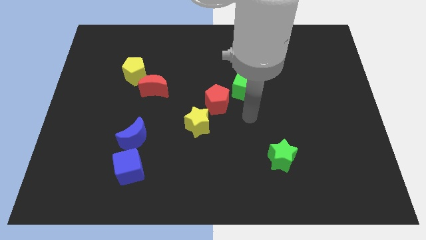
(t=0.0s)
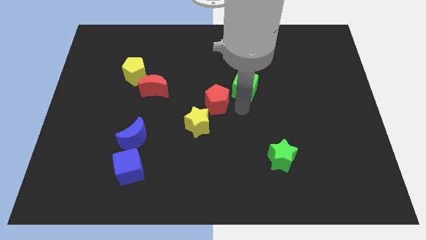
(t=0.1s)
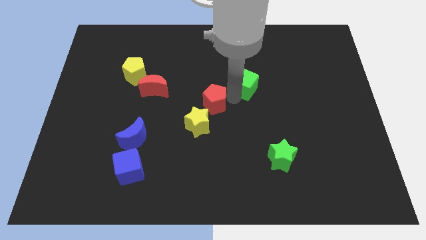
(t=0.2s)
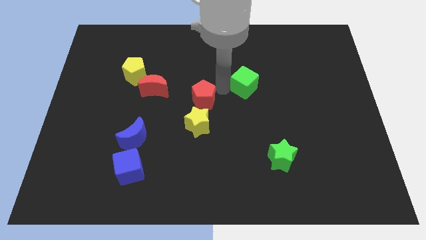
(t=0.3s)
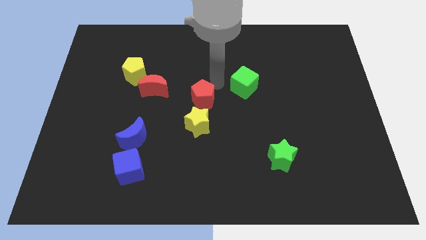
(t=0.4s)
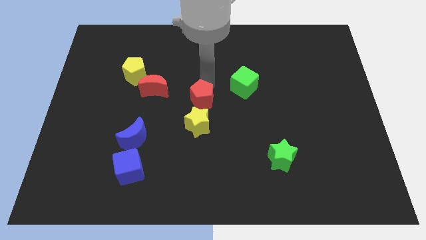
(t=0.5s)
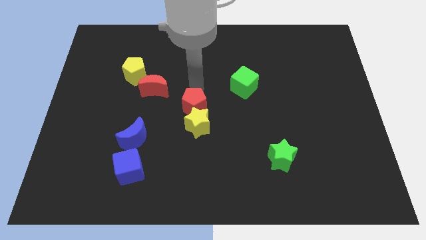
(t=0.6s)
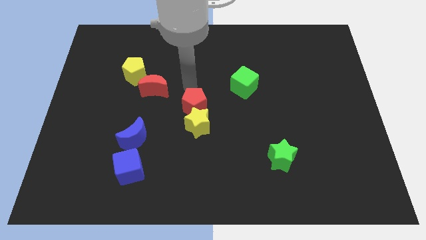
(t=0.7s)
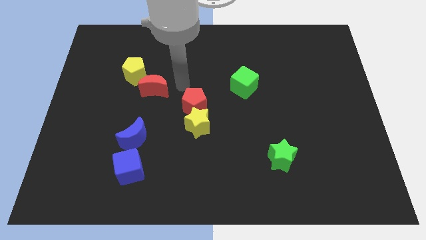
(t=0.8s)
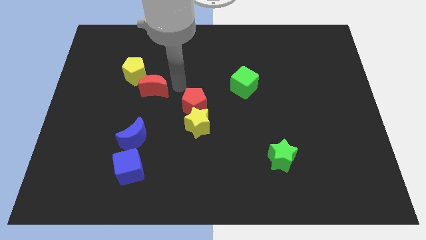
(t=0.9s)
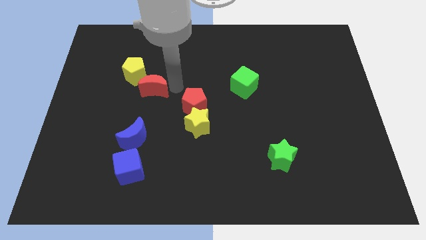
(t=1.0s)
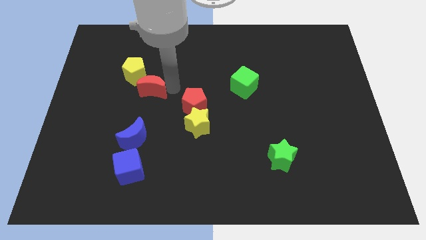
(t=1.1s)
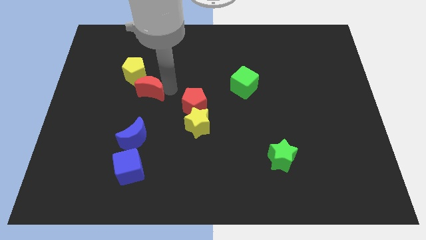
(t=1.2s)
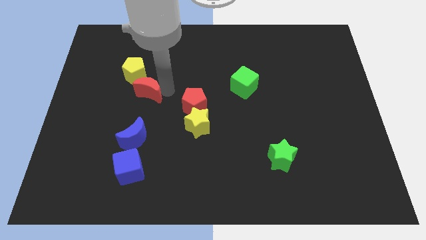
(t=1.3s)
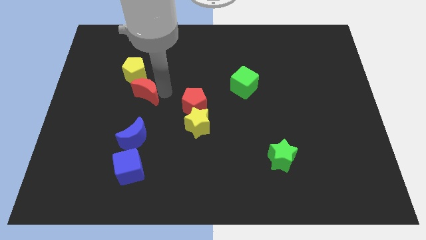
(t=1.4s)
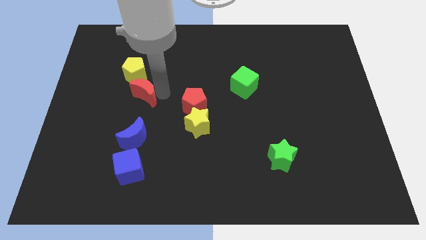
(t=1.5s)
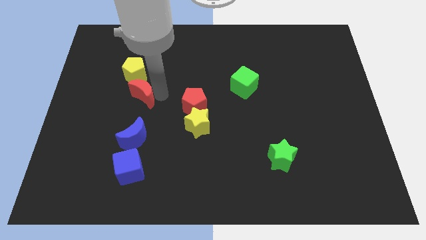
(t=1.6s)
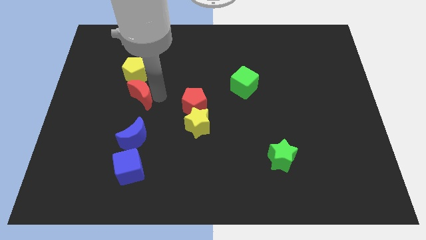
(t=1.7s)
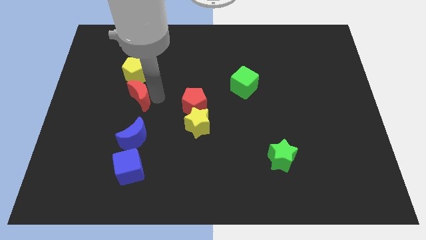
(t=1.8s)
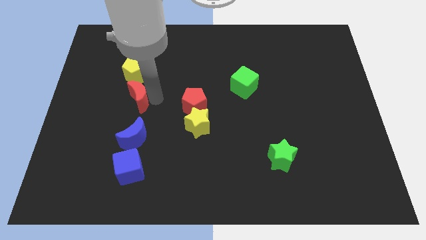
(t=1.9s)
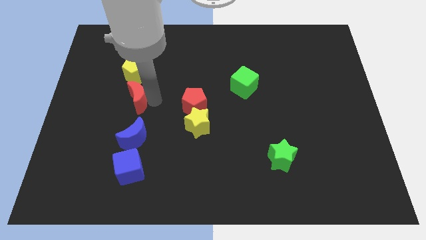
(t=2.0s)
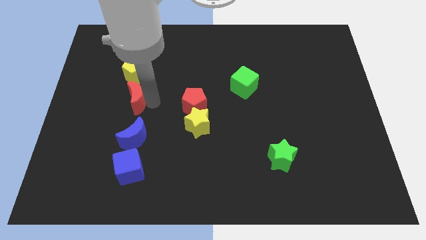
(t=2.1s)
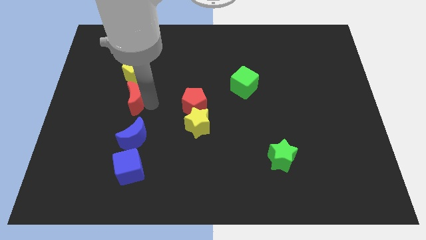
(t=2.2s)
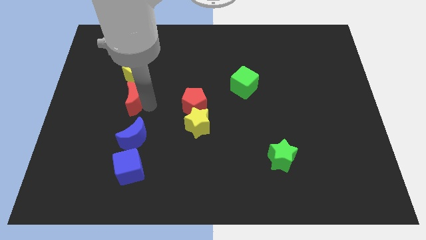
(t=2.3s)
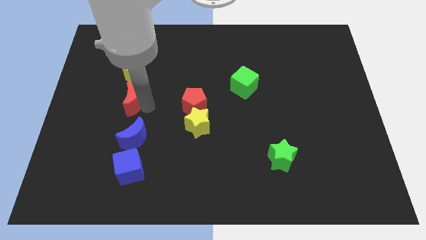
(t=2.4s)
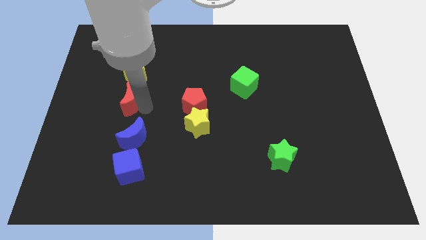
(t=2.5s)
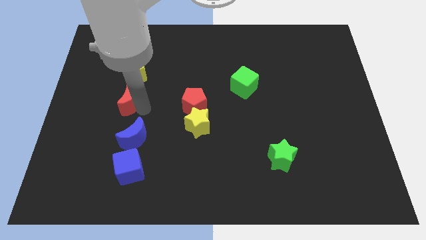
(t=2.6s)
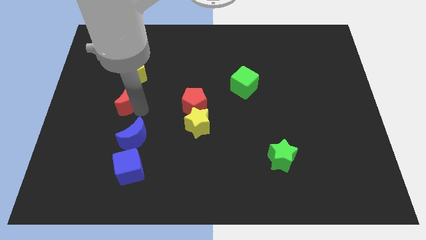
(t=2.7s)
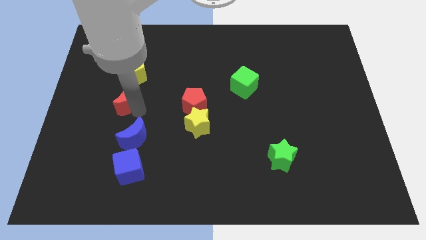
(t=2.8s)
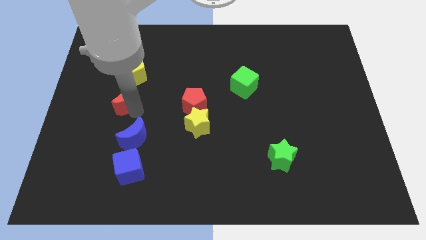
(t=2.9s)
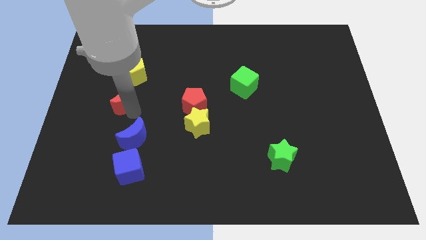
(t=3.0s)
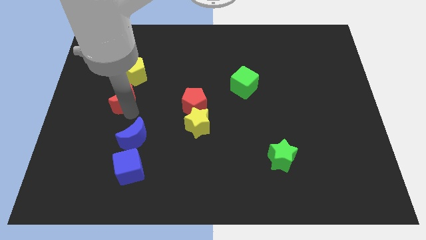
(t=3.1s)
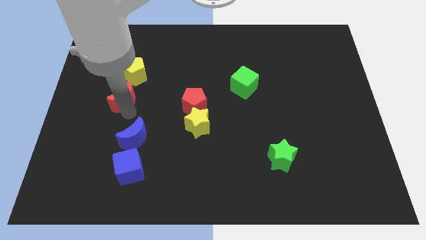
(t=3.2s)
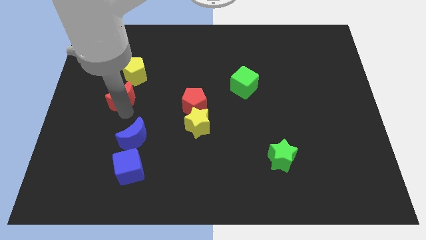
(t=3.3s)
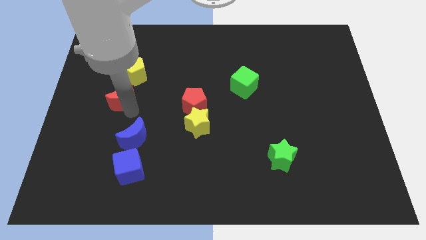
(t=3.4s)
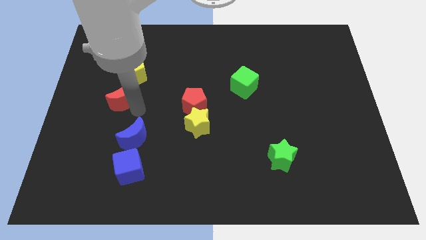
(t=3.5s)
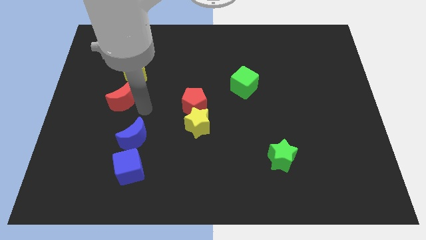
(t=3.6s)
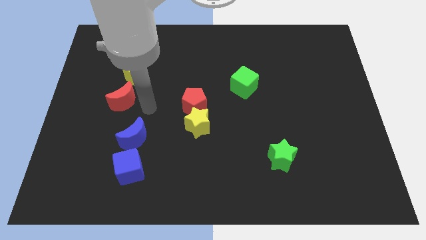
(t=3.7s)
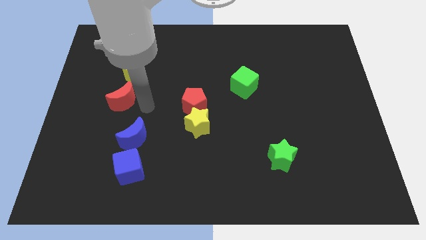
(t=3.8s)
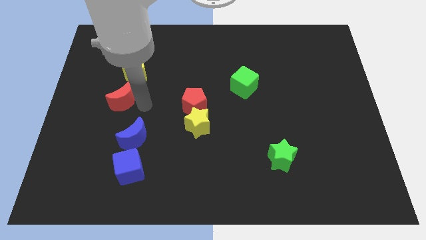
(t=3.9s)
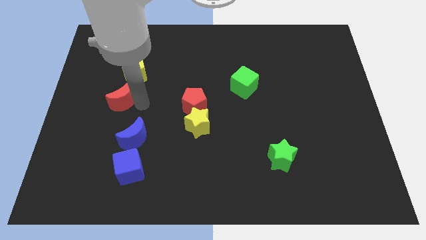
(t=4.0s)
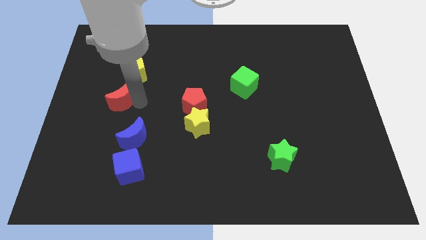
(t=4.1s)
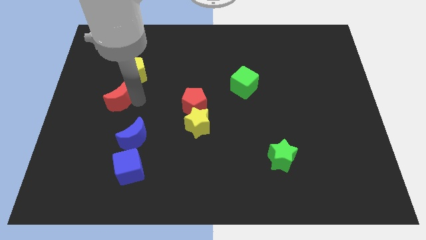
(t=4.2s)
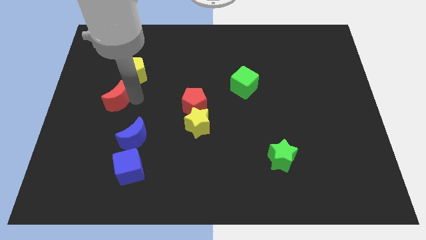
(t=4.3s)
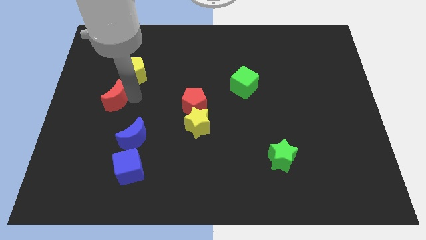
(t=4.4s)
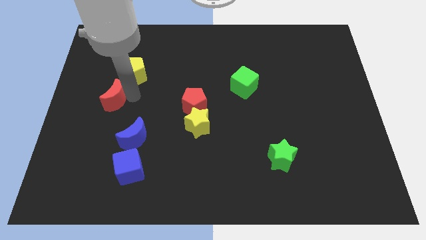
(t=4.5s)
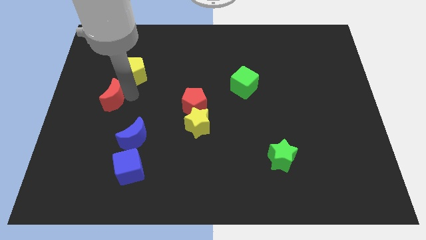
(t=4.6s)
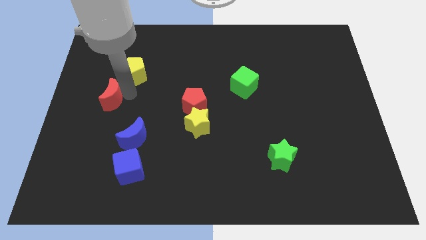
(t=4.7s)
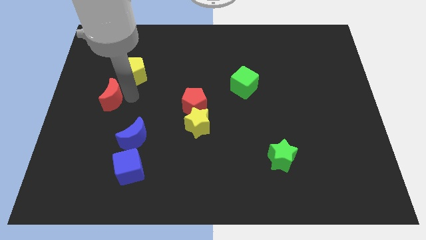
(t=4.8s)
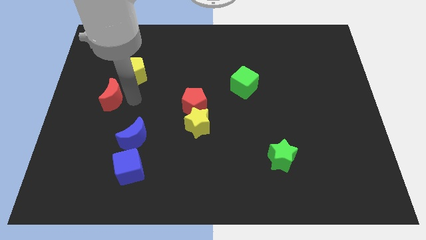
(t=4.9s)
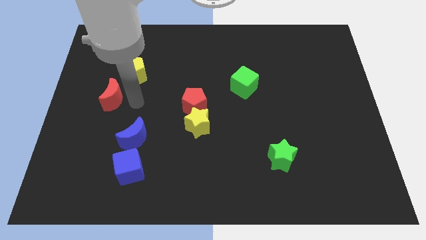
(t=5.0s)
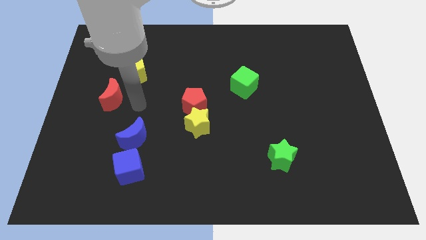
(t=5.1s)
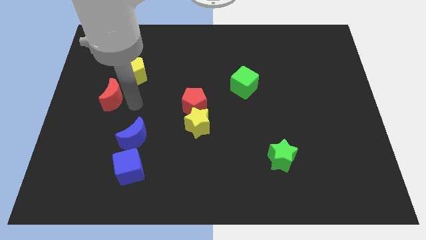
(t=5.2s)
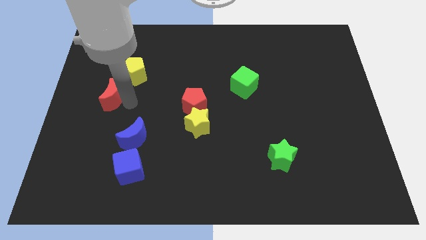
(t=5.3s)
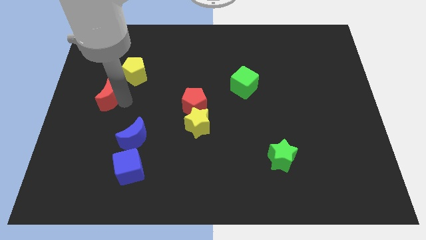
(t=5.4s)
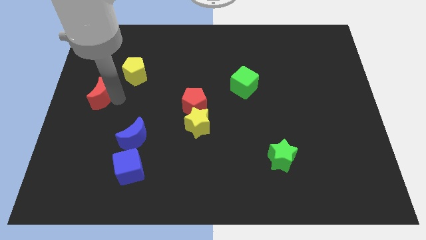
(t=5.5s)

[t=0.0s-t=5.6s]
push the red moon to the left side of the board

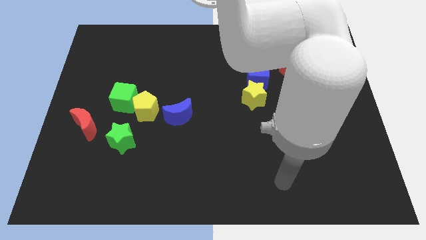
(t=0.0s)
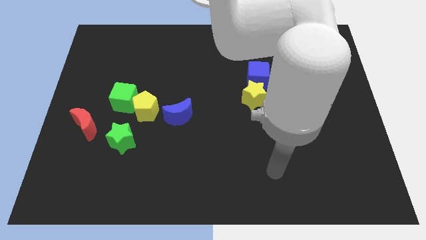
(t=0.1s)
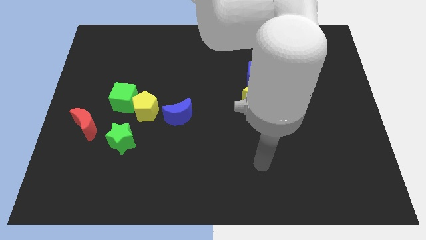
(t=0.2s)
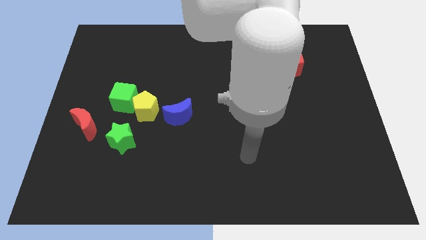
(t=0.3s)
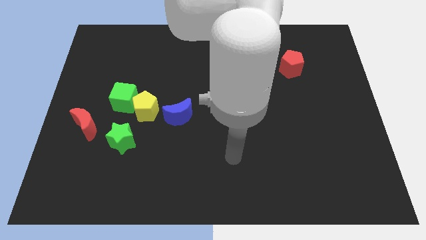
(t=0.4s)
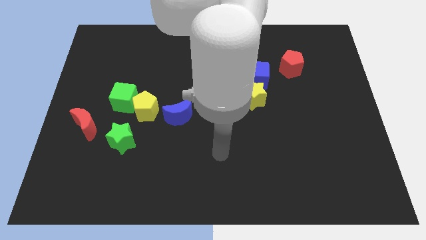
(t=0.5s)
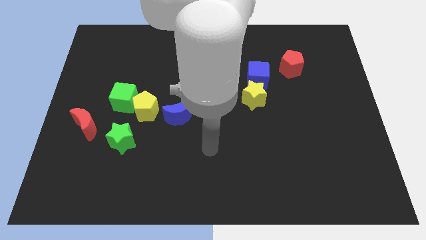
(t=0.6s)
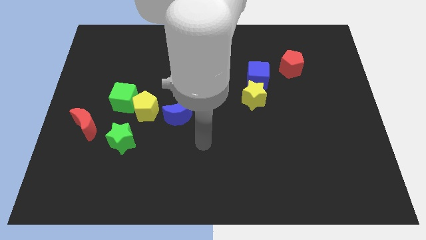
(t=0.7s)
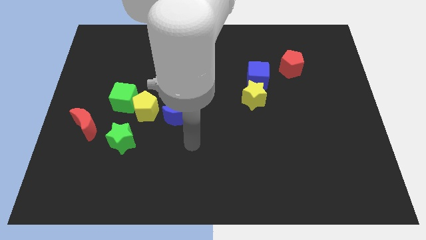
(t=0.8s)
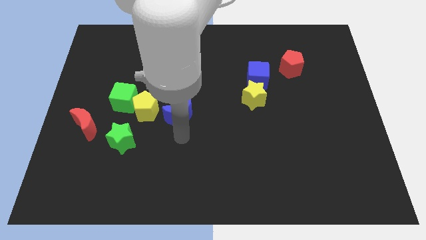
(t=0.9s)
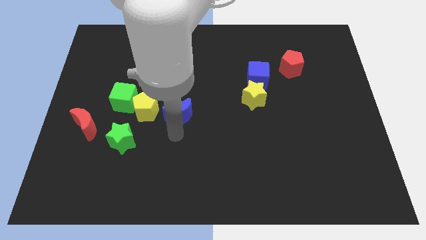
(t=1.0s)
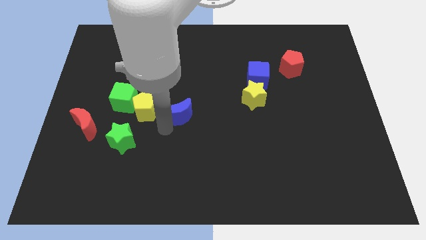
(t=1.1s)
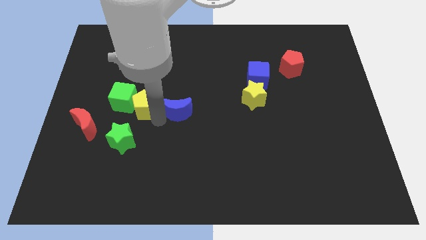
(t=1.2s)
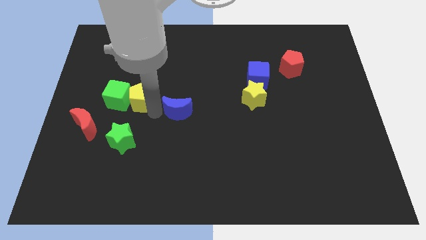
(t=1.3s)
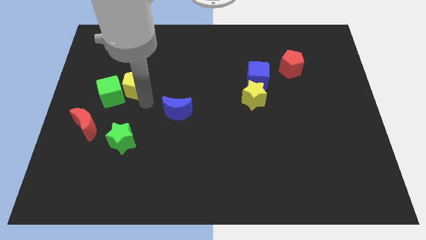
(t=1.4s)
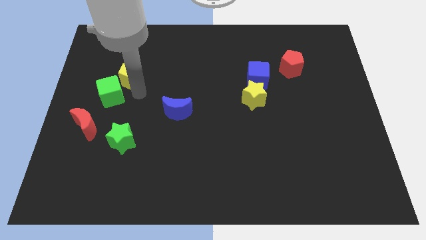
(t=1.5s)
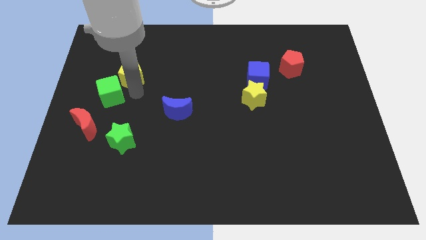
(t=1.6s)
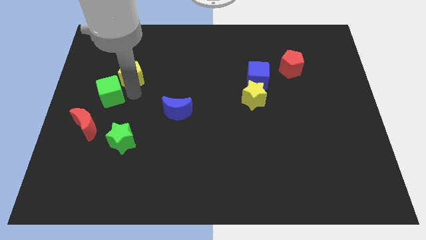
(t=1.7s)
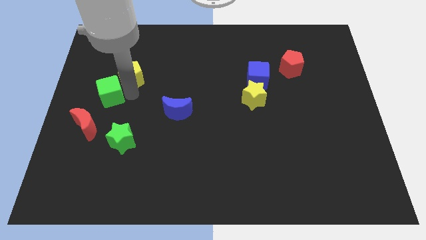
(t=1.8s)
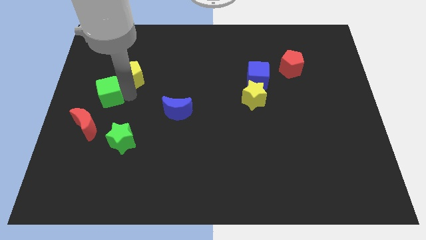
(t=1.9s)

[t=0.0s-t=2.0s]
push the green cube to the left side
